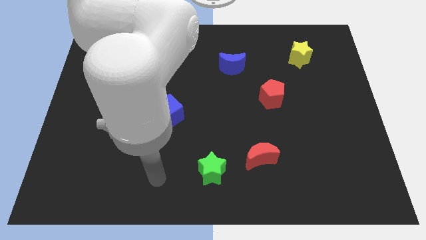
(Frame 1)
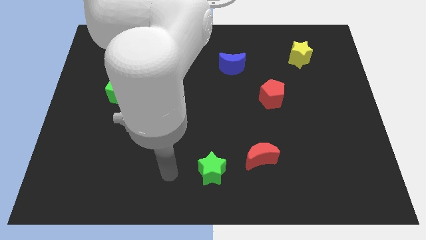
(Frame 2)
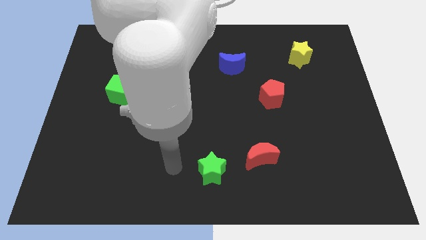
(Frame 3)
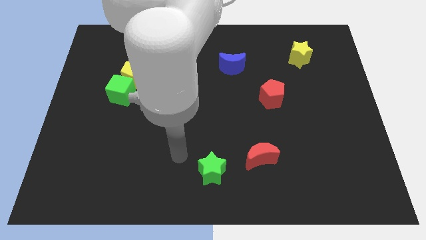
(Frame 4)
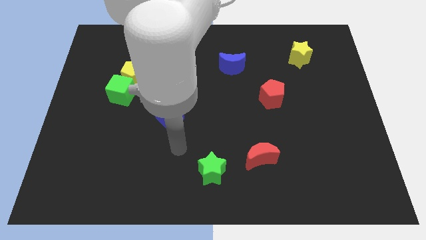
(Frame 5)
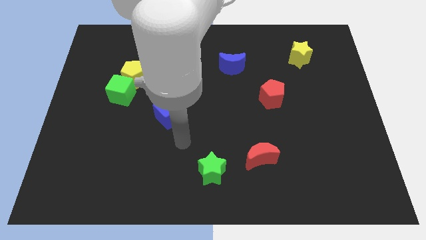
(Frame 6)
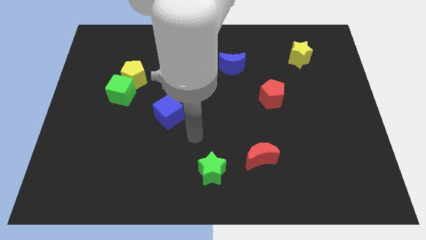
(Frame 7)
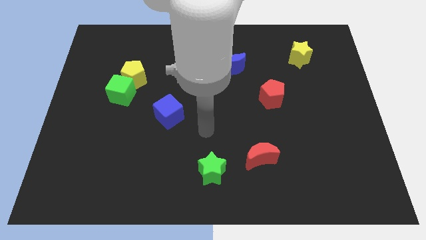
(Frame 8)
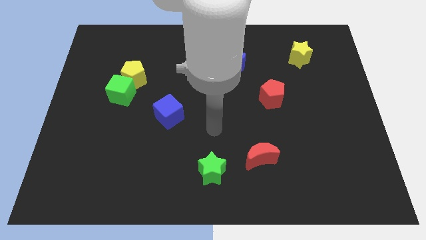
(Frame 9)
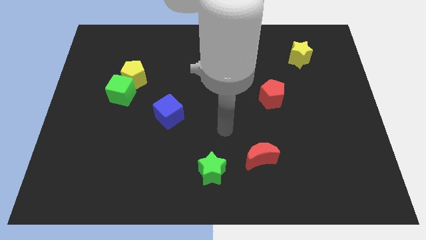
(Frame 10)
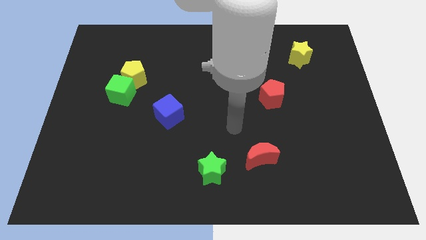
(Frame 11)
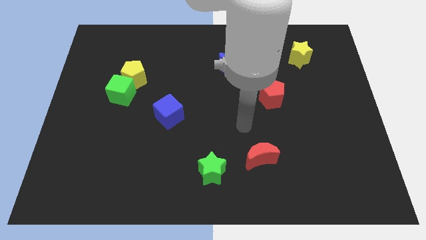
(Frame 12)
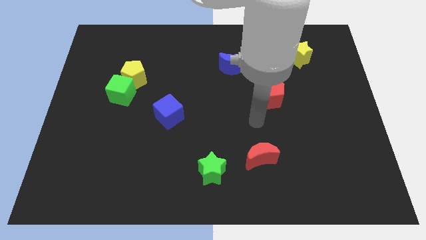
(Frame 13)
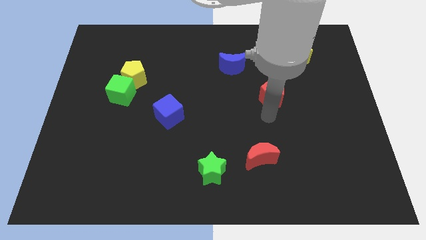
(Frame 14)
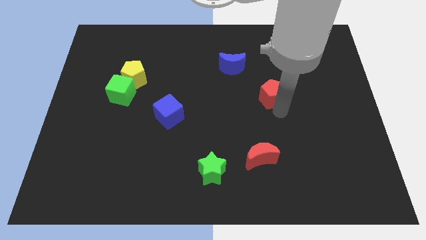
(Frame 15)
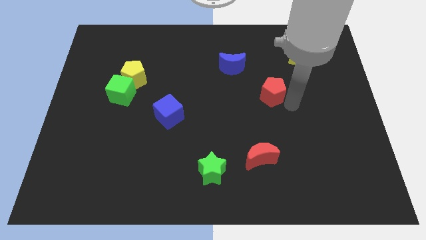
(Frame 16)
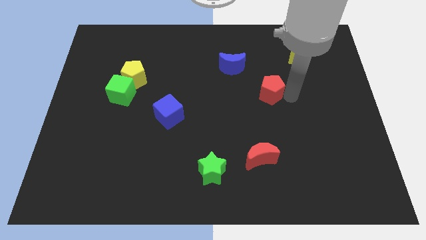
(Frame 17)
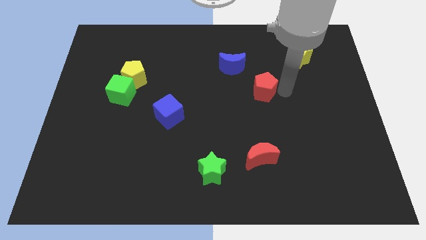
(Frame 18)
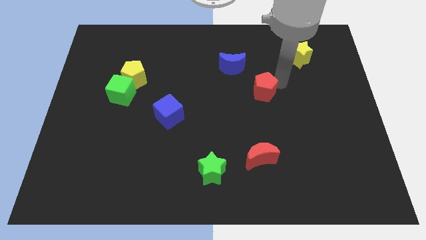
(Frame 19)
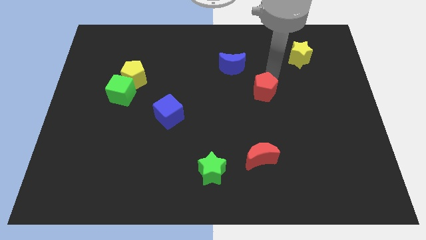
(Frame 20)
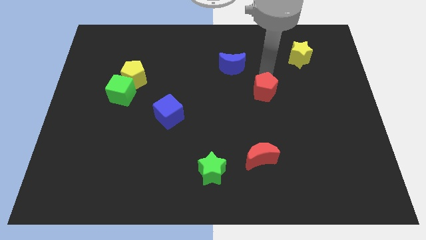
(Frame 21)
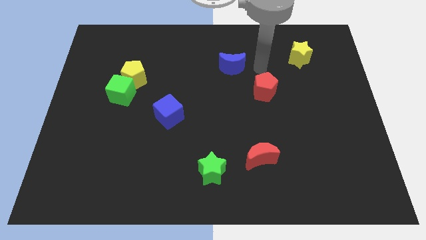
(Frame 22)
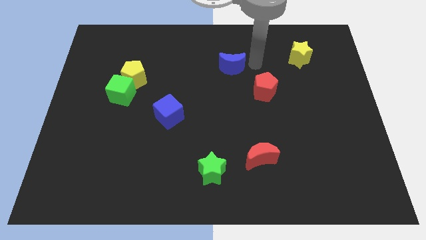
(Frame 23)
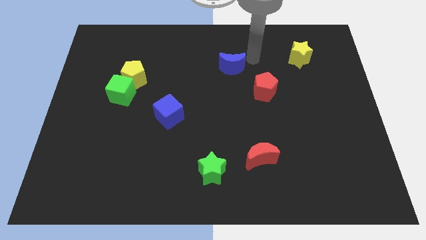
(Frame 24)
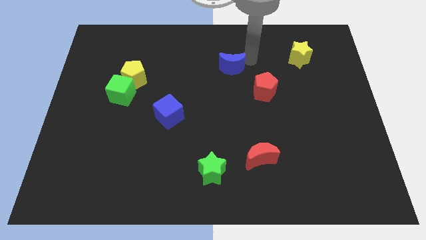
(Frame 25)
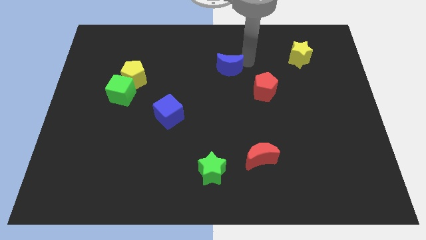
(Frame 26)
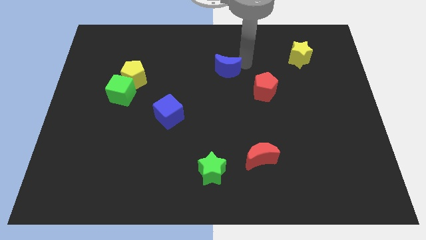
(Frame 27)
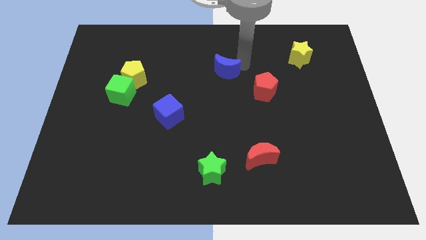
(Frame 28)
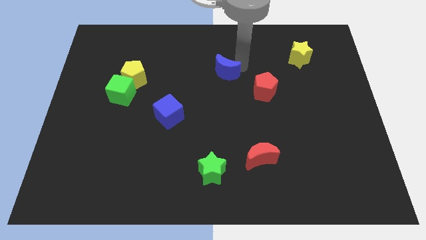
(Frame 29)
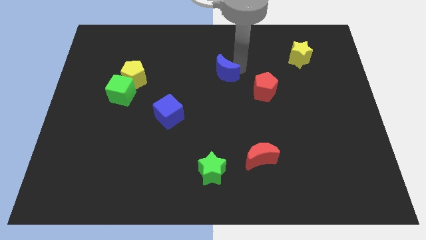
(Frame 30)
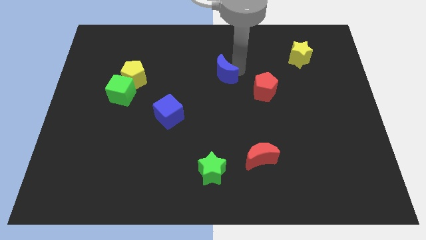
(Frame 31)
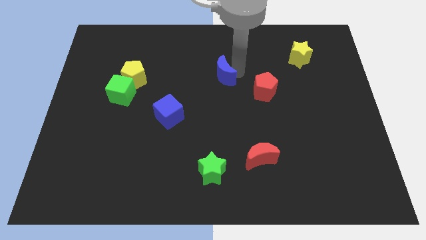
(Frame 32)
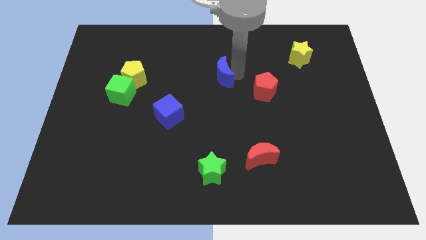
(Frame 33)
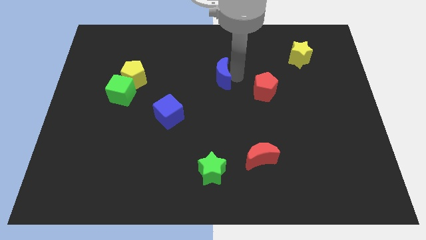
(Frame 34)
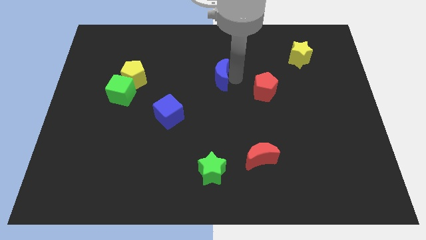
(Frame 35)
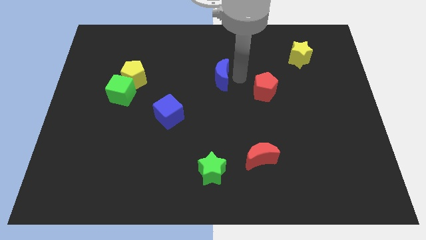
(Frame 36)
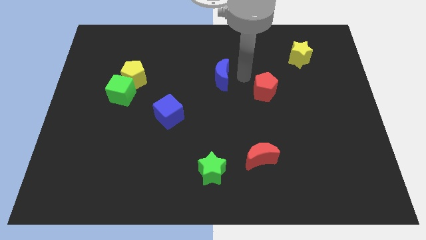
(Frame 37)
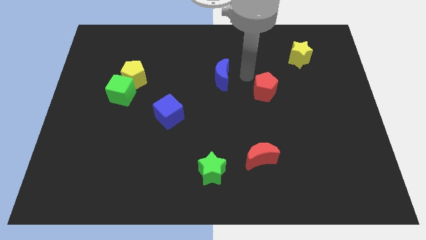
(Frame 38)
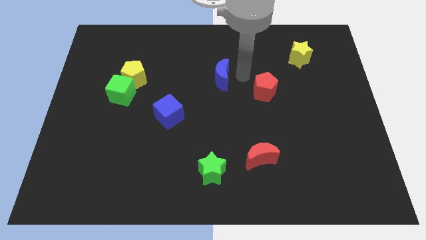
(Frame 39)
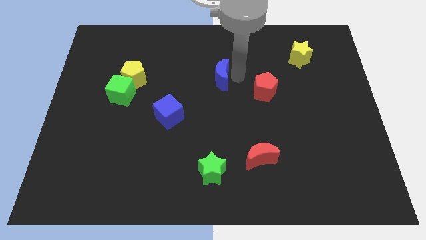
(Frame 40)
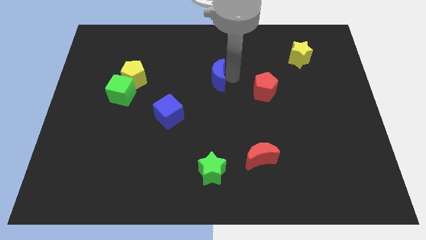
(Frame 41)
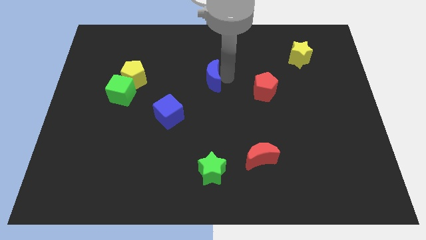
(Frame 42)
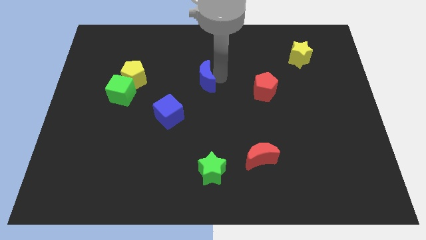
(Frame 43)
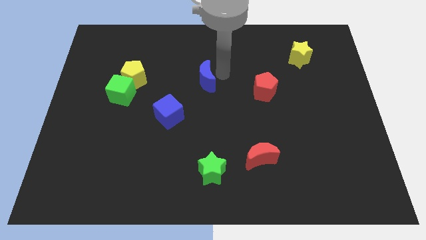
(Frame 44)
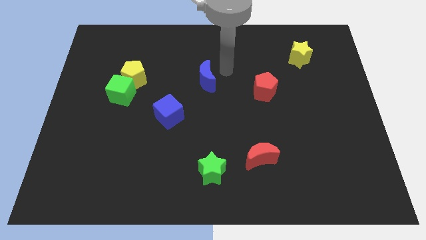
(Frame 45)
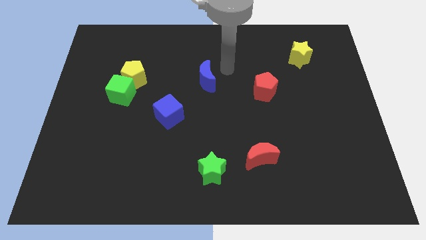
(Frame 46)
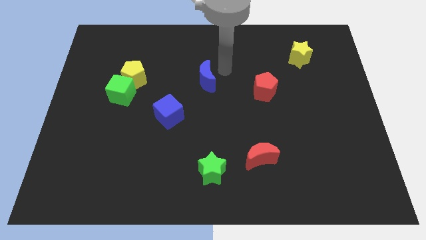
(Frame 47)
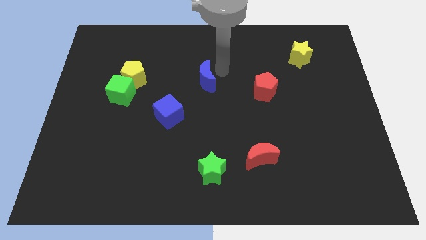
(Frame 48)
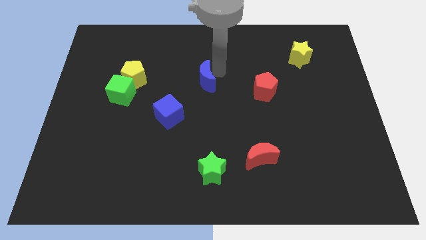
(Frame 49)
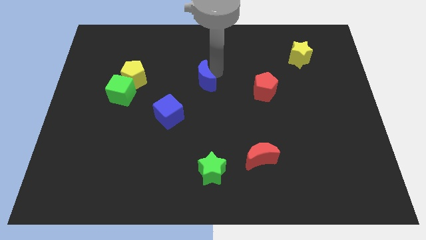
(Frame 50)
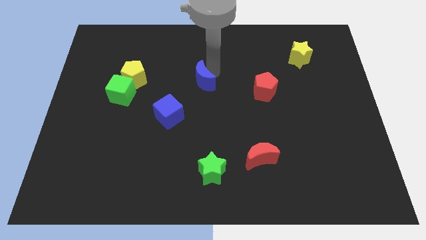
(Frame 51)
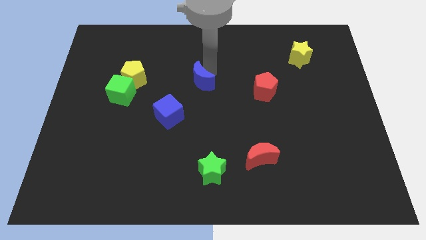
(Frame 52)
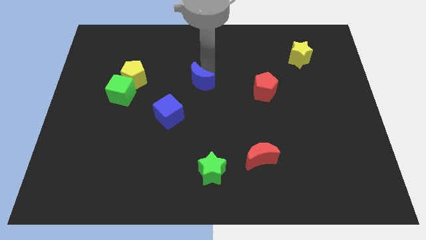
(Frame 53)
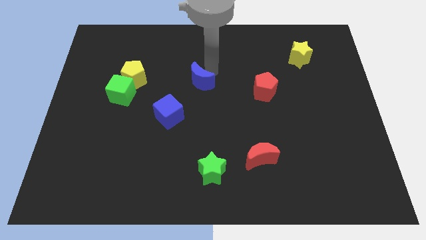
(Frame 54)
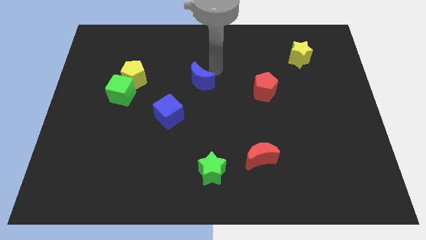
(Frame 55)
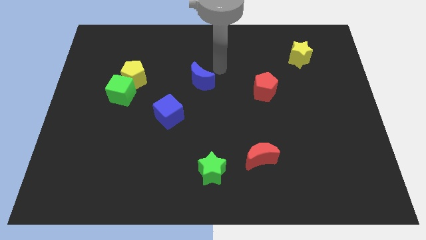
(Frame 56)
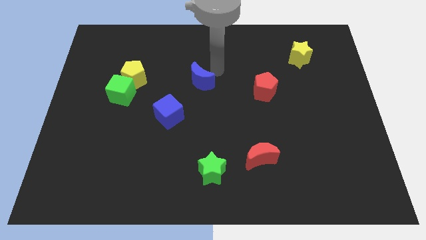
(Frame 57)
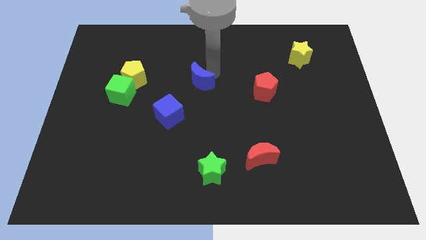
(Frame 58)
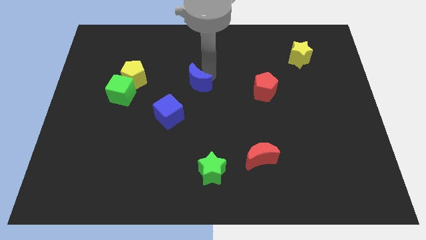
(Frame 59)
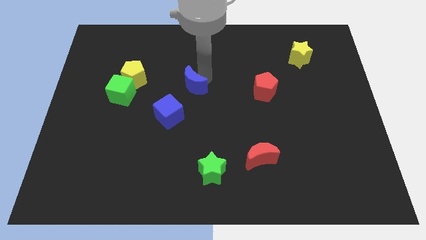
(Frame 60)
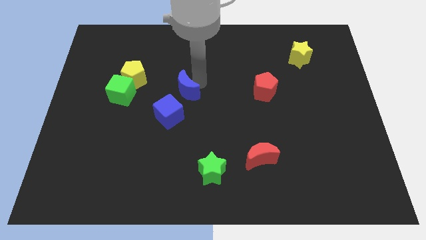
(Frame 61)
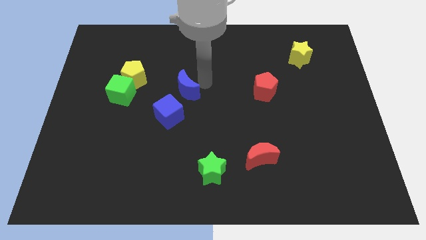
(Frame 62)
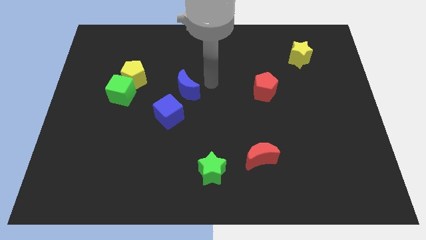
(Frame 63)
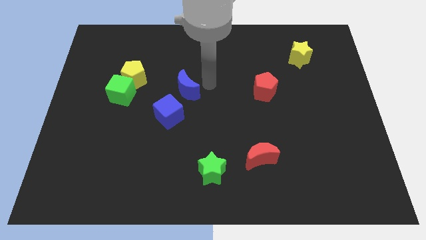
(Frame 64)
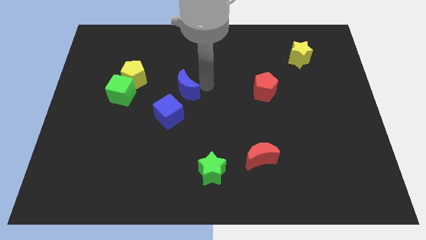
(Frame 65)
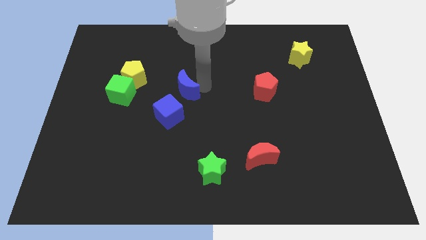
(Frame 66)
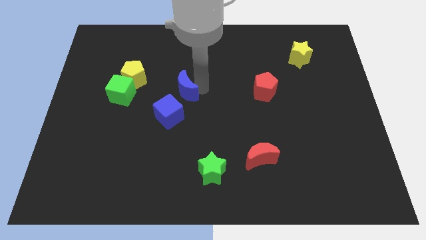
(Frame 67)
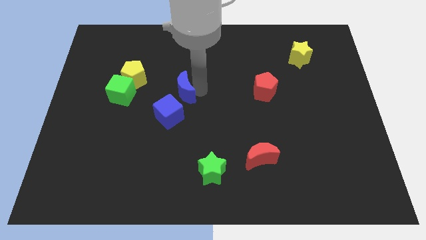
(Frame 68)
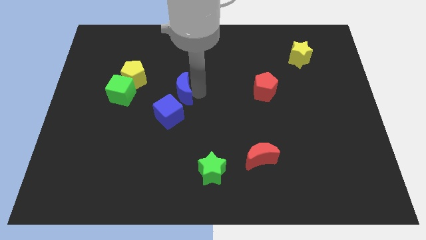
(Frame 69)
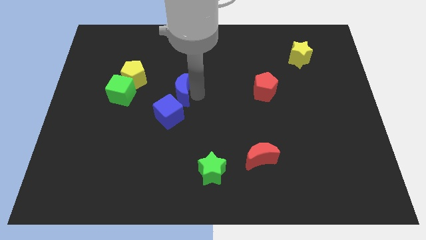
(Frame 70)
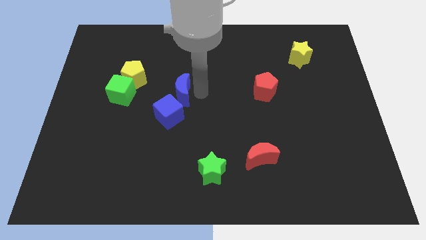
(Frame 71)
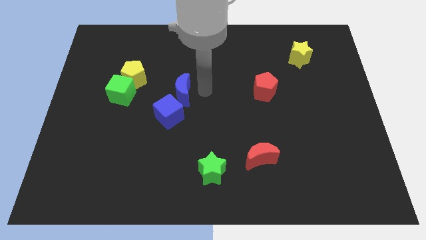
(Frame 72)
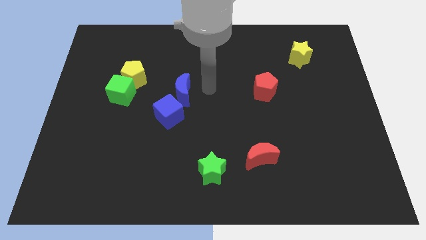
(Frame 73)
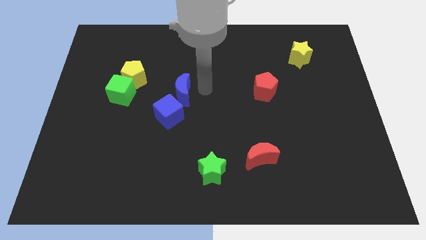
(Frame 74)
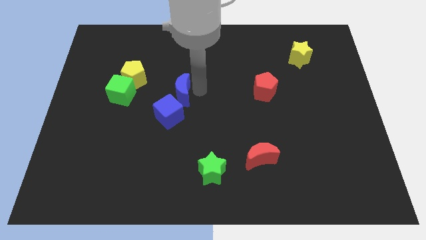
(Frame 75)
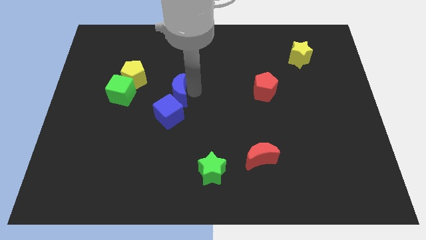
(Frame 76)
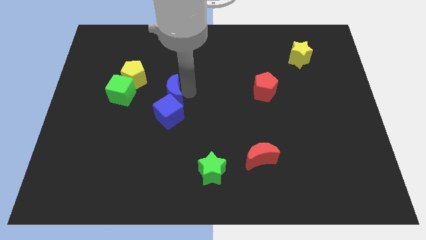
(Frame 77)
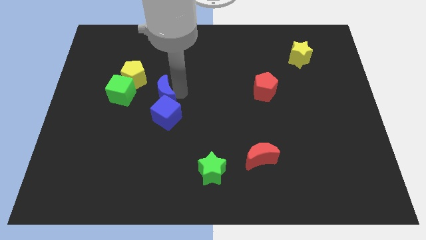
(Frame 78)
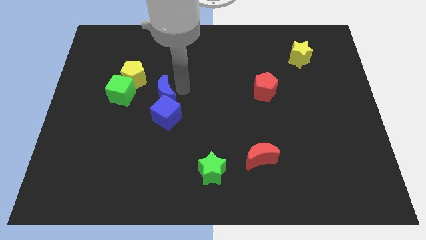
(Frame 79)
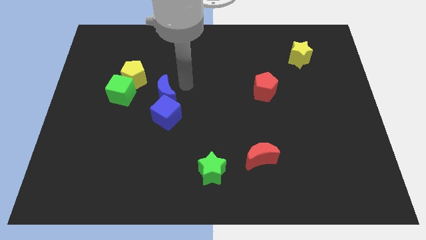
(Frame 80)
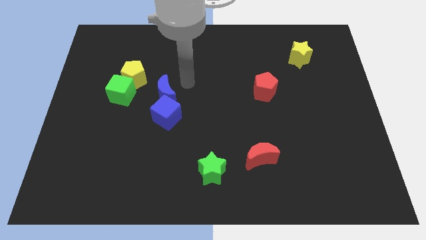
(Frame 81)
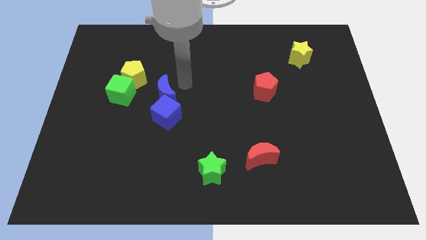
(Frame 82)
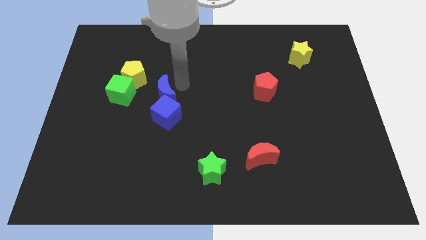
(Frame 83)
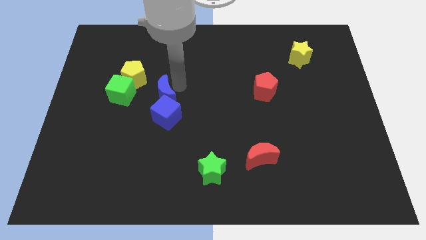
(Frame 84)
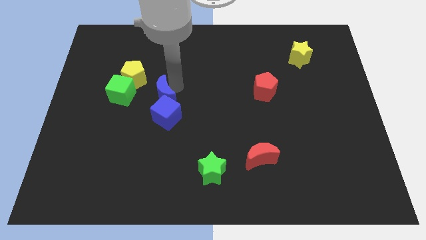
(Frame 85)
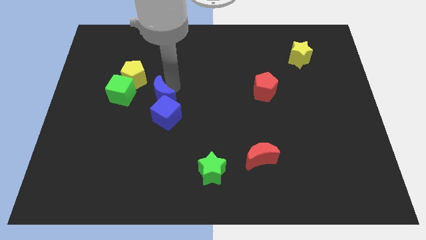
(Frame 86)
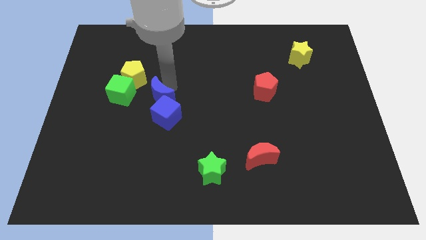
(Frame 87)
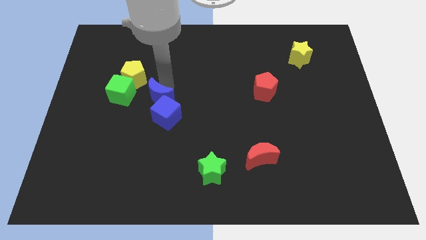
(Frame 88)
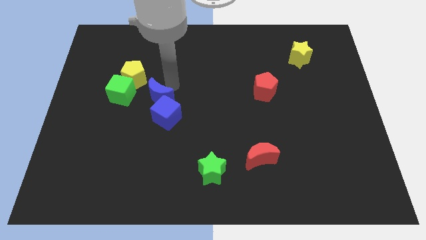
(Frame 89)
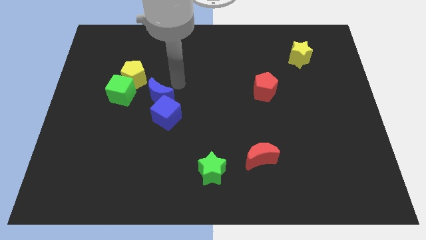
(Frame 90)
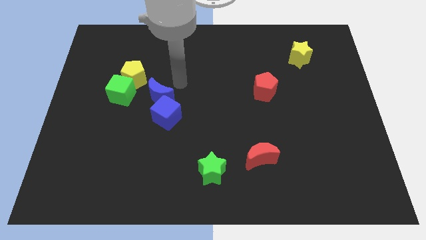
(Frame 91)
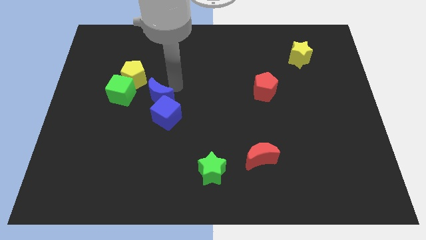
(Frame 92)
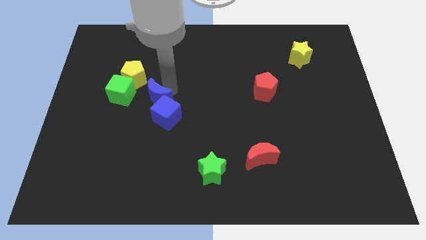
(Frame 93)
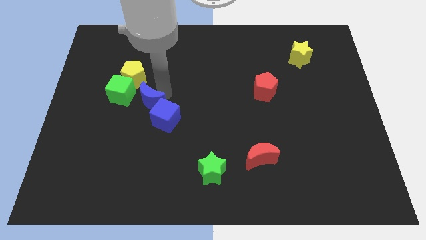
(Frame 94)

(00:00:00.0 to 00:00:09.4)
move the blue moon diagonally down and to the right of the green cube
